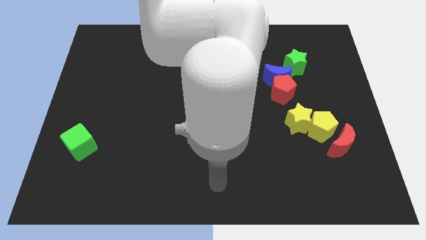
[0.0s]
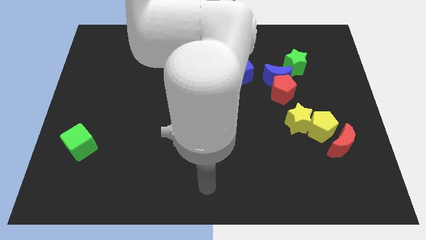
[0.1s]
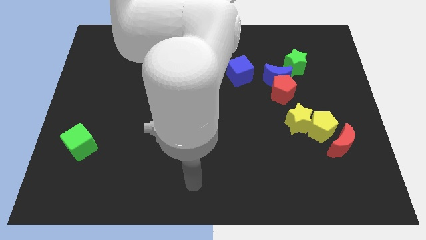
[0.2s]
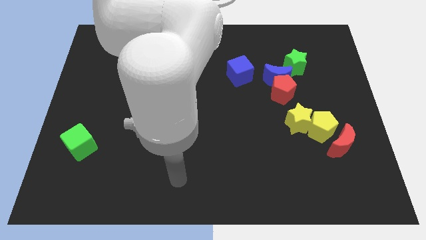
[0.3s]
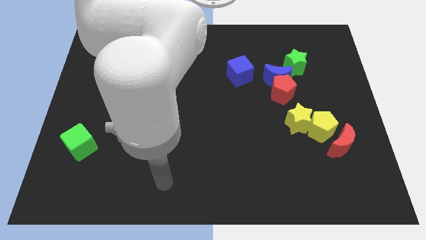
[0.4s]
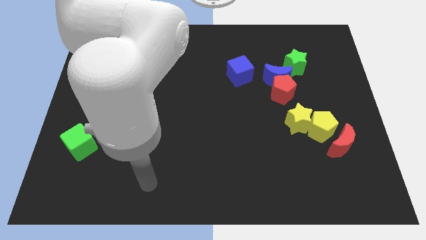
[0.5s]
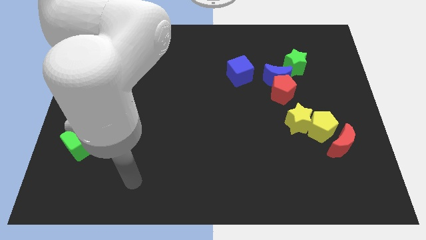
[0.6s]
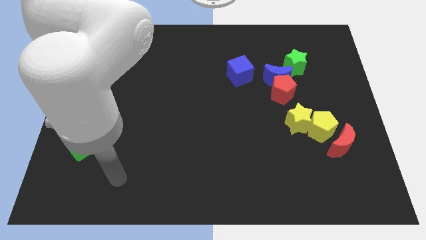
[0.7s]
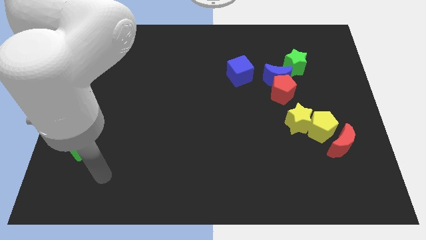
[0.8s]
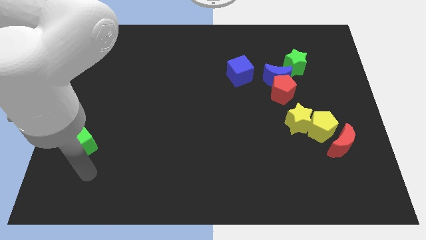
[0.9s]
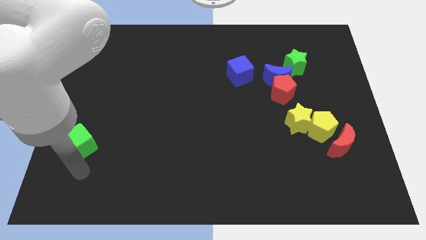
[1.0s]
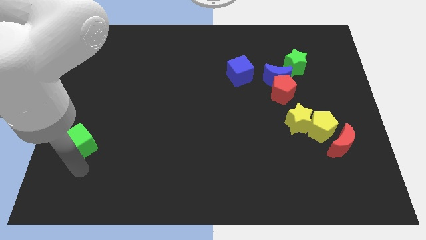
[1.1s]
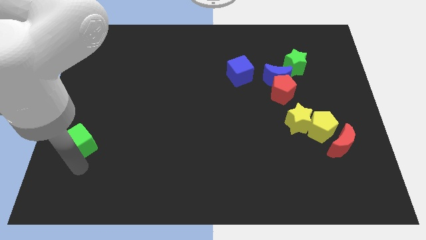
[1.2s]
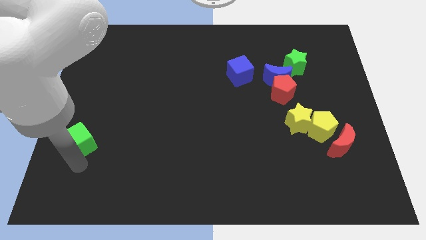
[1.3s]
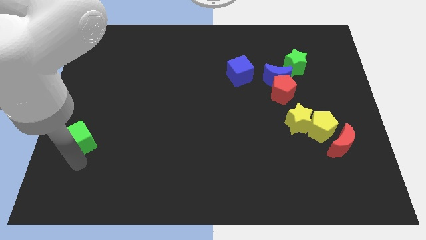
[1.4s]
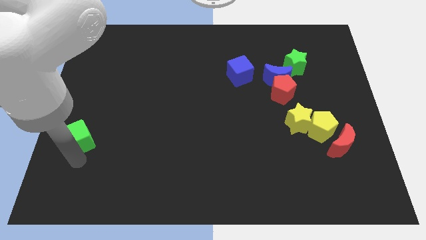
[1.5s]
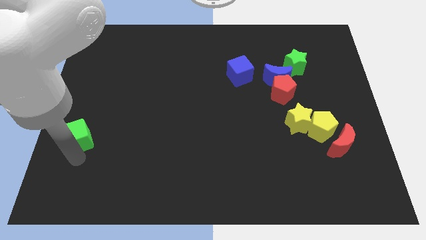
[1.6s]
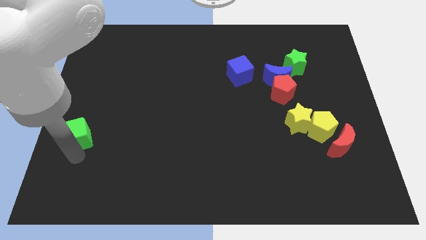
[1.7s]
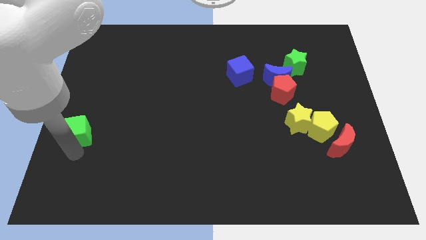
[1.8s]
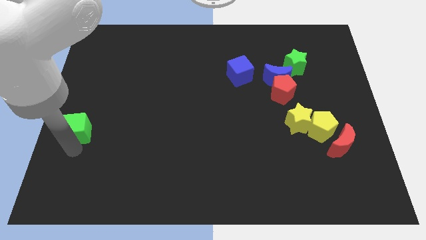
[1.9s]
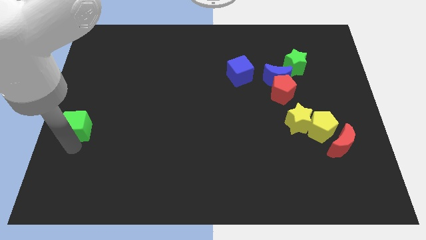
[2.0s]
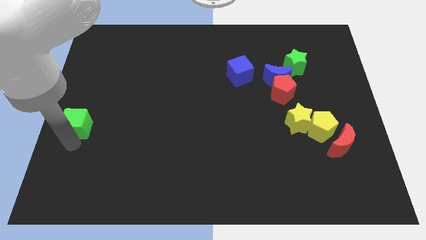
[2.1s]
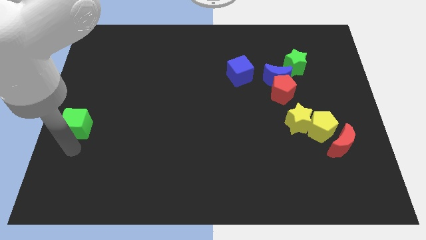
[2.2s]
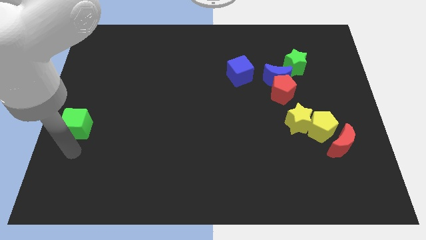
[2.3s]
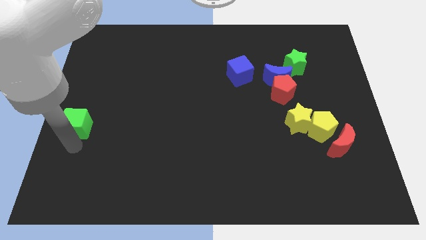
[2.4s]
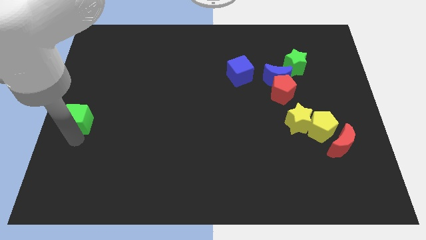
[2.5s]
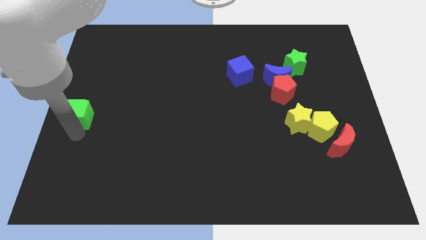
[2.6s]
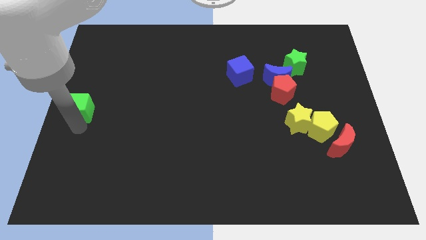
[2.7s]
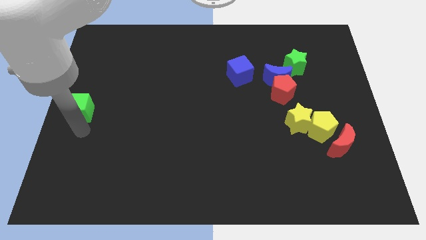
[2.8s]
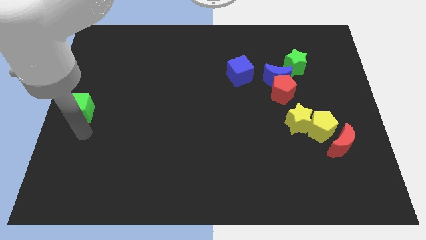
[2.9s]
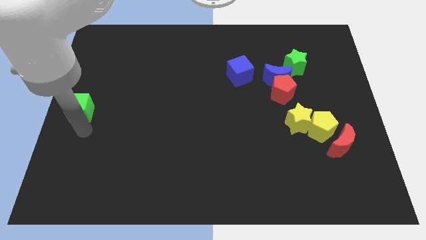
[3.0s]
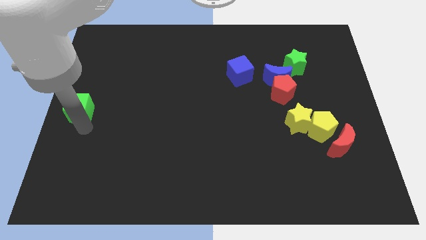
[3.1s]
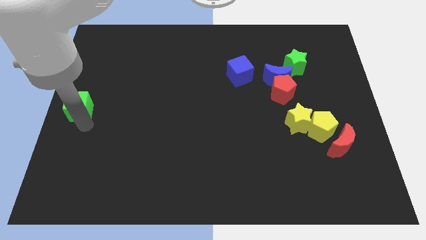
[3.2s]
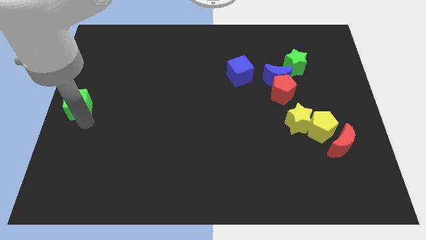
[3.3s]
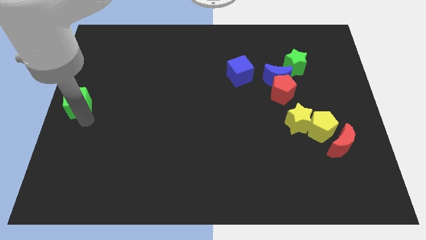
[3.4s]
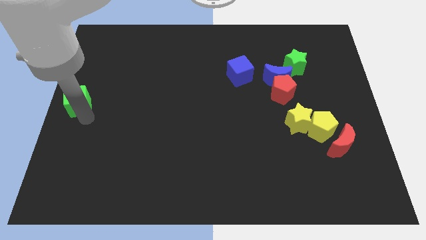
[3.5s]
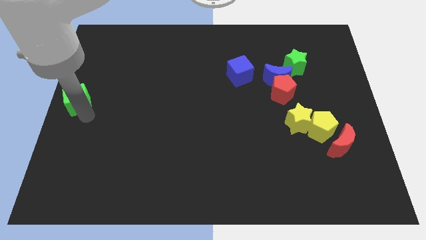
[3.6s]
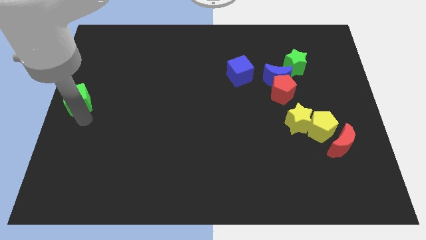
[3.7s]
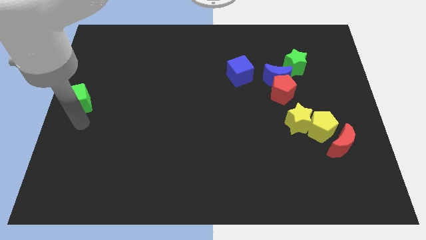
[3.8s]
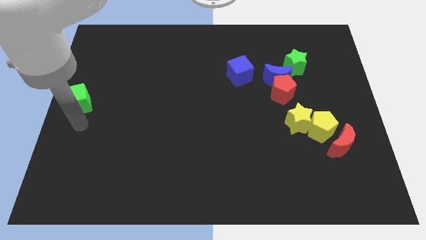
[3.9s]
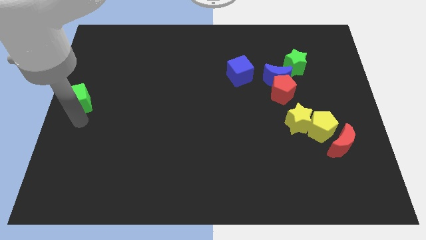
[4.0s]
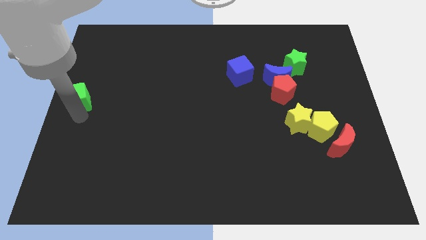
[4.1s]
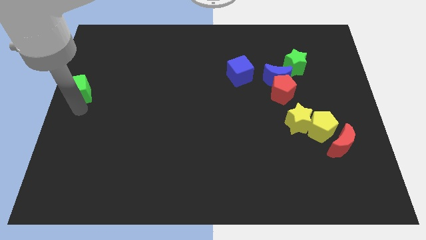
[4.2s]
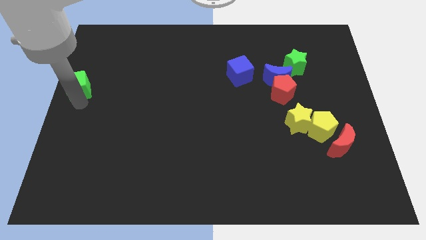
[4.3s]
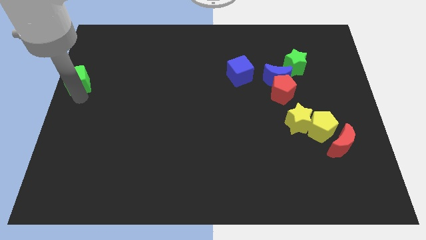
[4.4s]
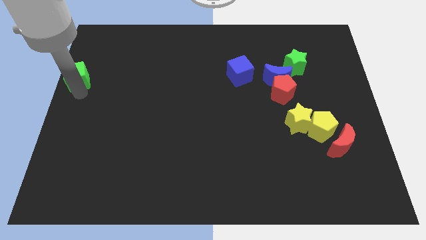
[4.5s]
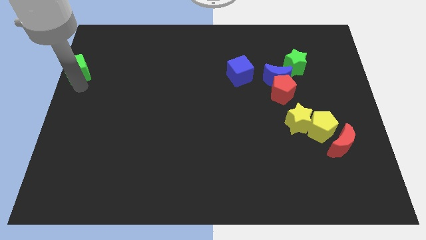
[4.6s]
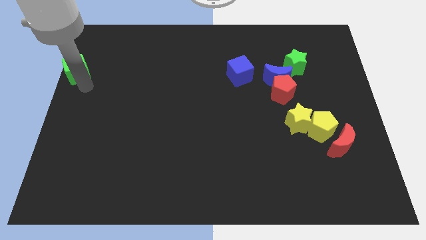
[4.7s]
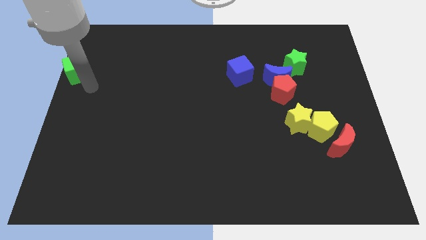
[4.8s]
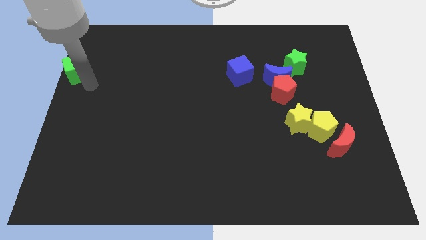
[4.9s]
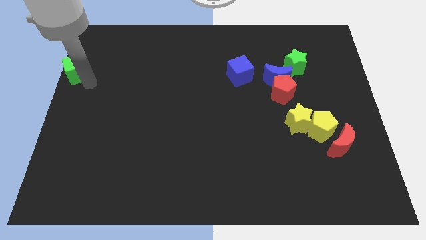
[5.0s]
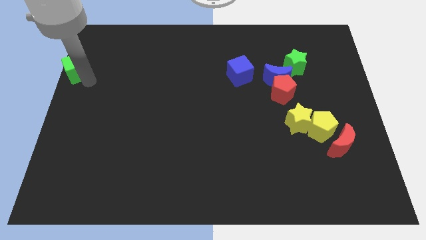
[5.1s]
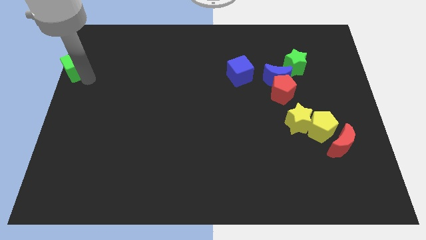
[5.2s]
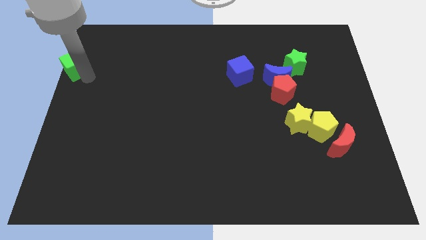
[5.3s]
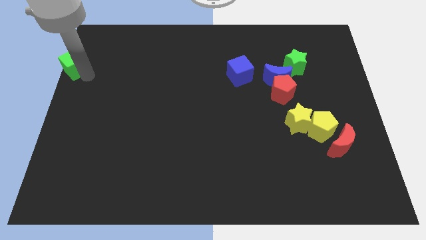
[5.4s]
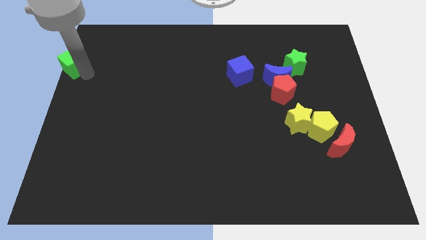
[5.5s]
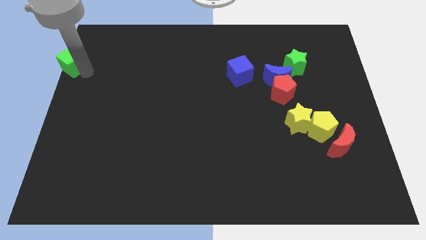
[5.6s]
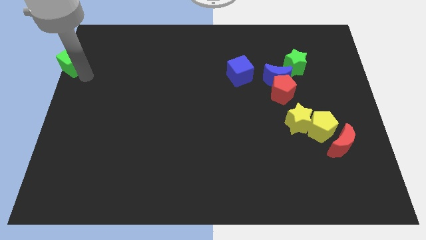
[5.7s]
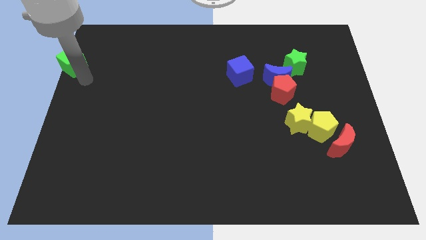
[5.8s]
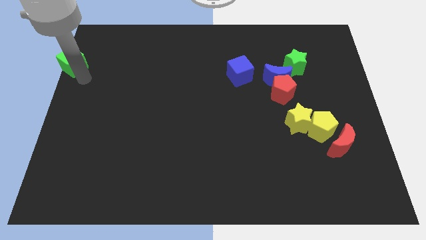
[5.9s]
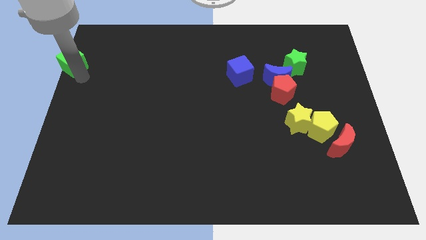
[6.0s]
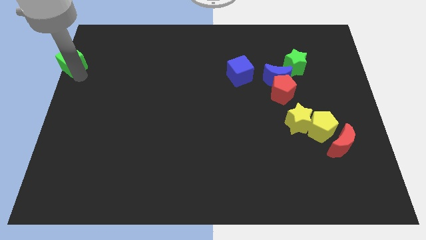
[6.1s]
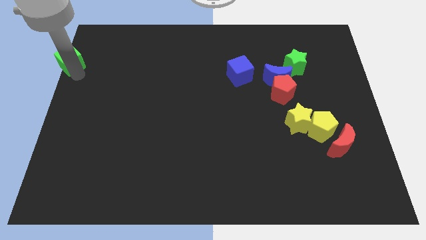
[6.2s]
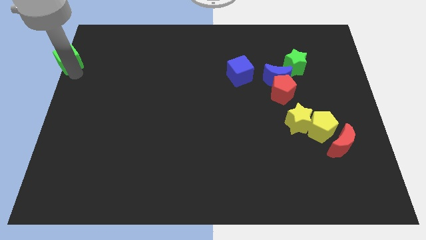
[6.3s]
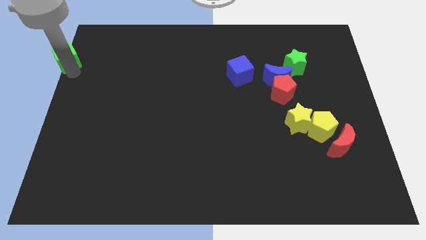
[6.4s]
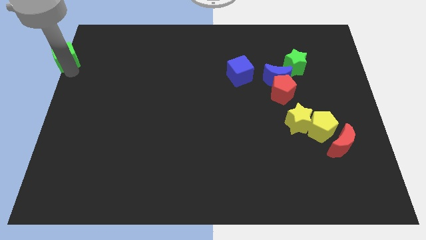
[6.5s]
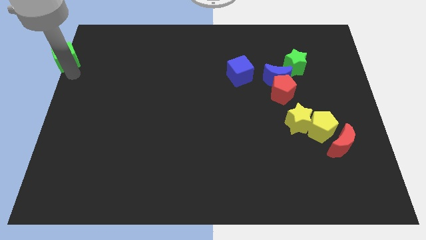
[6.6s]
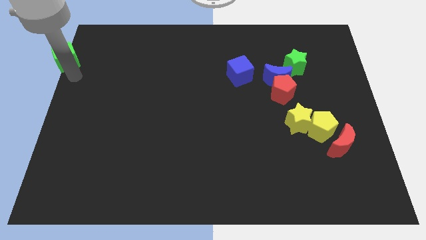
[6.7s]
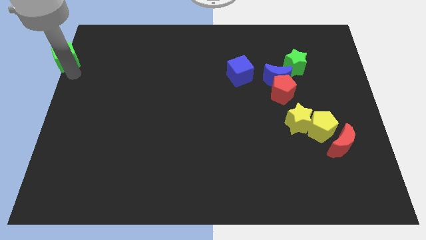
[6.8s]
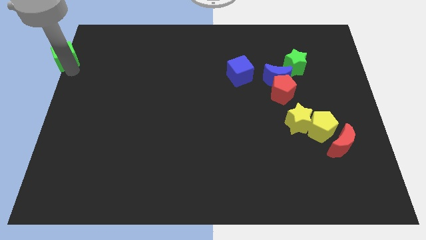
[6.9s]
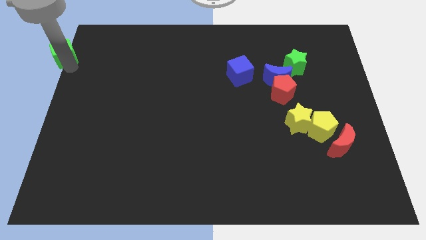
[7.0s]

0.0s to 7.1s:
push the green cube to the upper left corner
